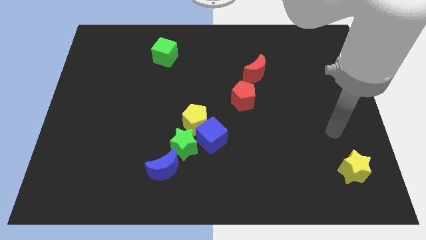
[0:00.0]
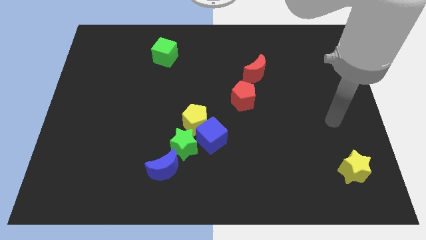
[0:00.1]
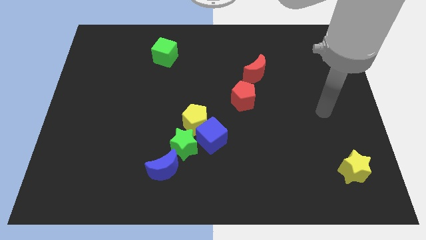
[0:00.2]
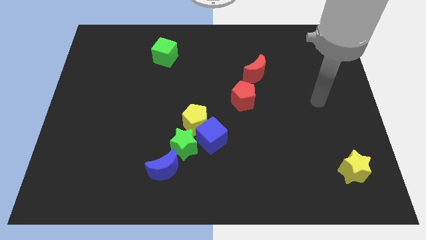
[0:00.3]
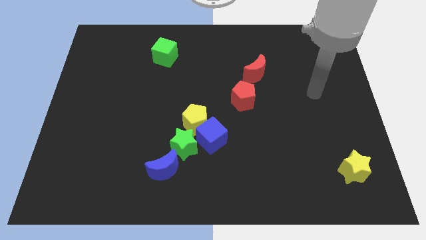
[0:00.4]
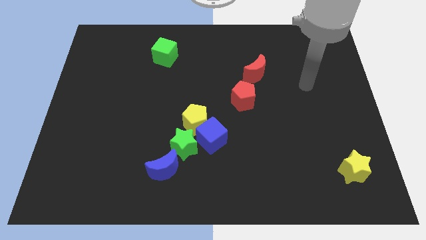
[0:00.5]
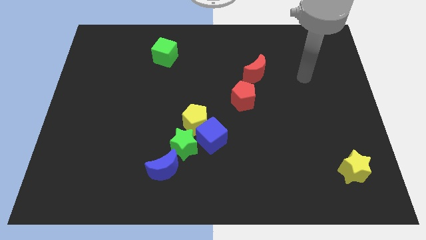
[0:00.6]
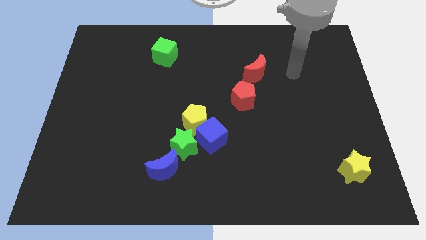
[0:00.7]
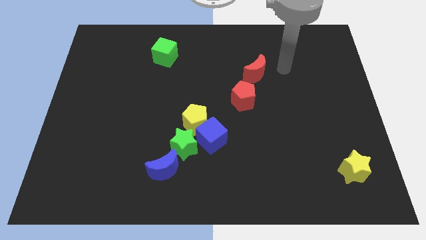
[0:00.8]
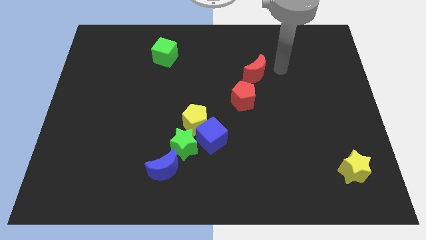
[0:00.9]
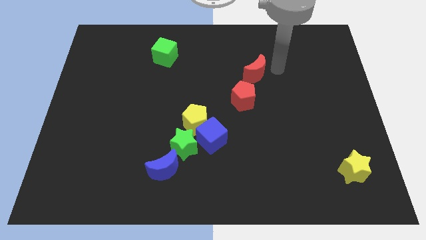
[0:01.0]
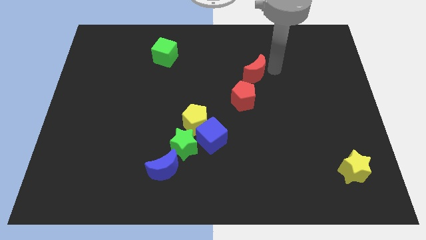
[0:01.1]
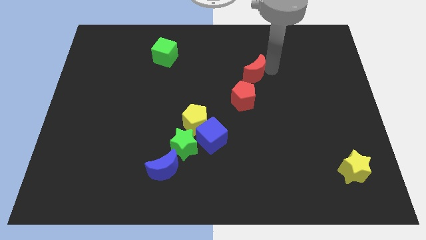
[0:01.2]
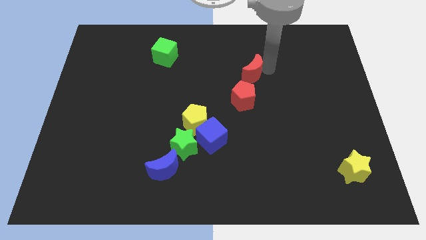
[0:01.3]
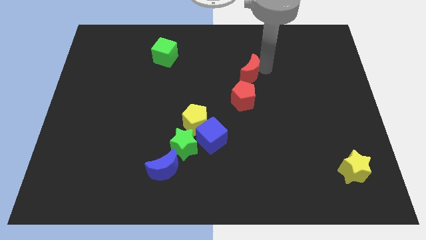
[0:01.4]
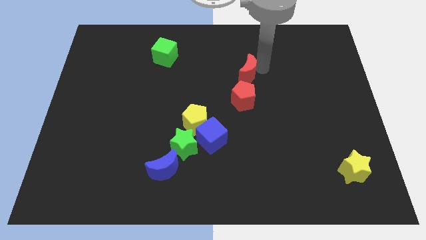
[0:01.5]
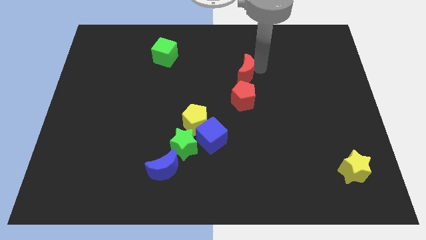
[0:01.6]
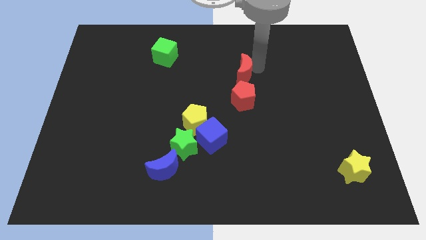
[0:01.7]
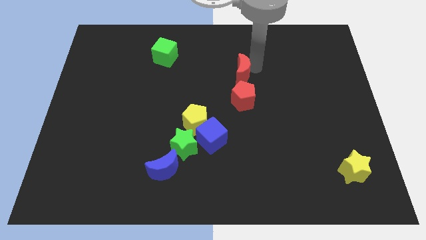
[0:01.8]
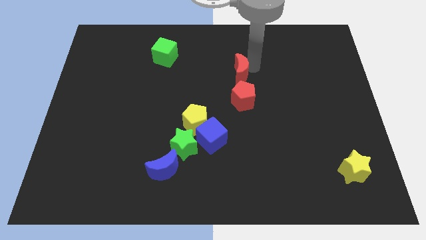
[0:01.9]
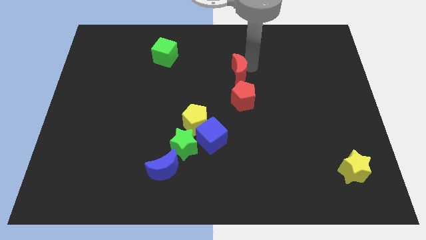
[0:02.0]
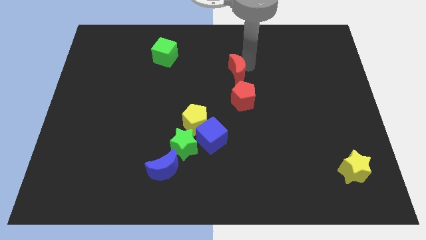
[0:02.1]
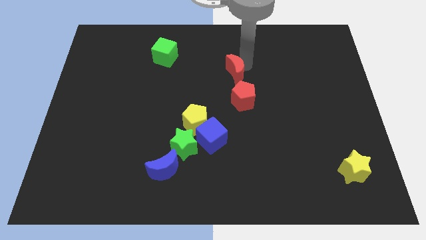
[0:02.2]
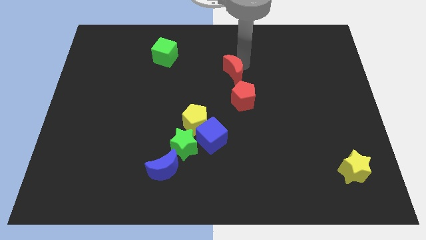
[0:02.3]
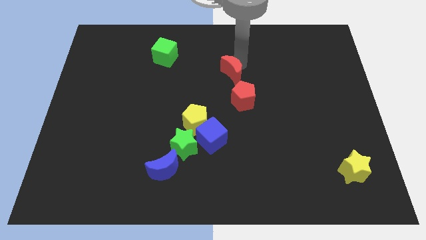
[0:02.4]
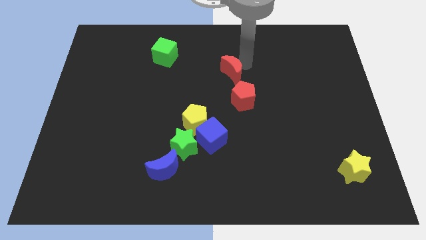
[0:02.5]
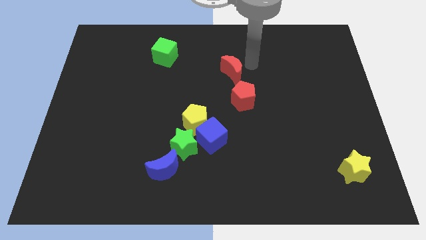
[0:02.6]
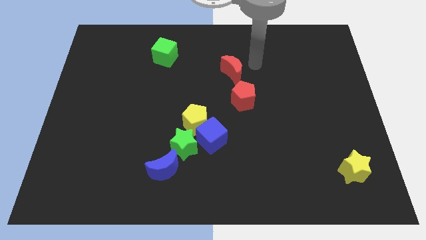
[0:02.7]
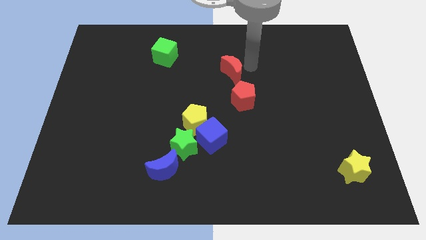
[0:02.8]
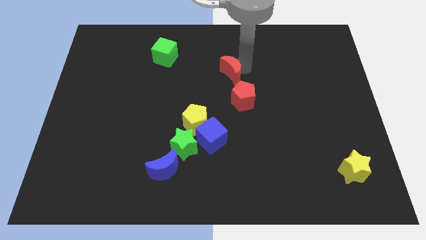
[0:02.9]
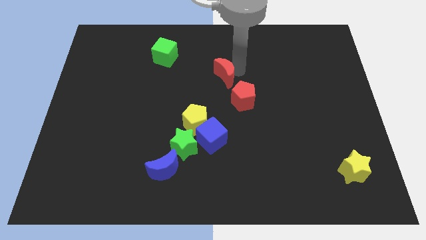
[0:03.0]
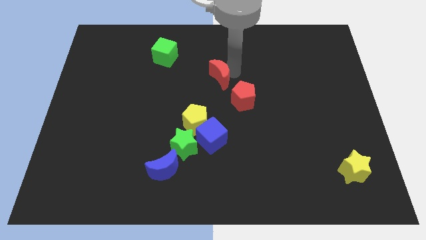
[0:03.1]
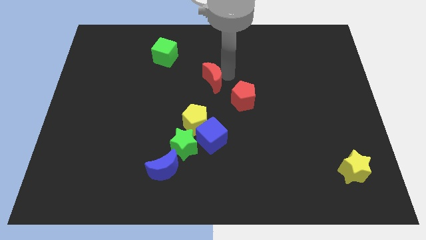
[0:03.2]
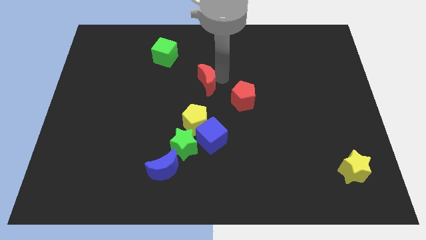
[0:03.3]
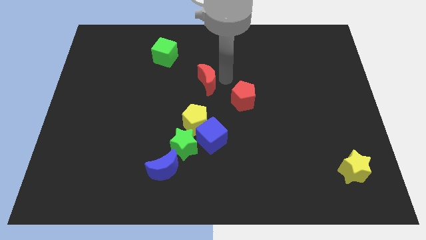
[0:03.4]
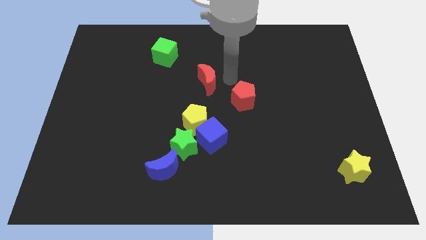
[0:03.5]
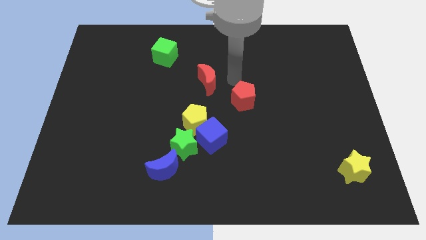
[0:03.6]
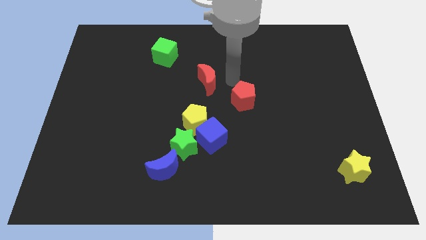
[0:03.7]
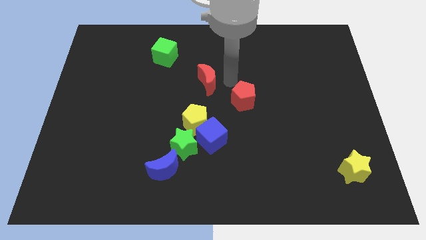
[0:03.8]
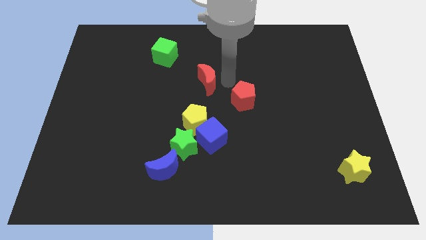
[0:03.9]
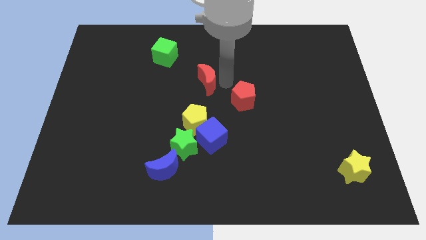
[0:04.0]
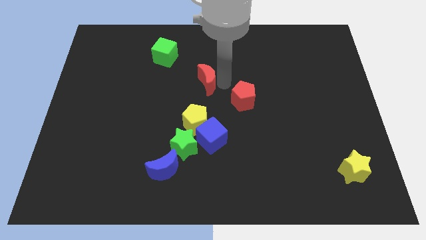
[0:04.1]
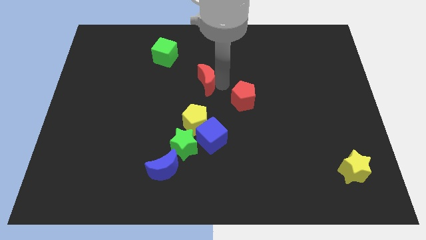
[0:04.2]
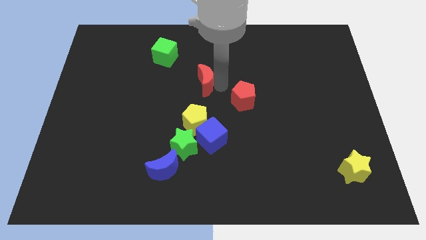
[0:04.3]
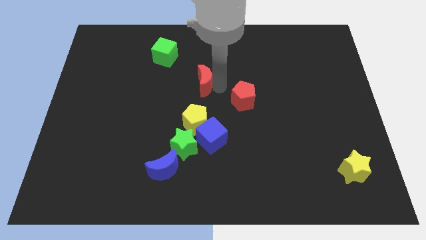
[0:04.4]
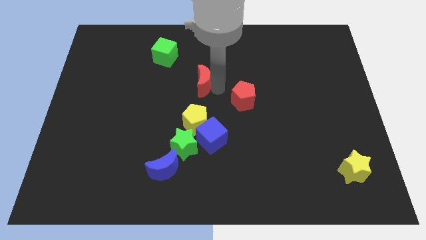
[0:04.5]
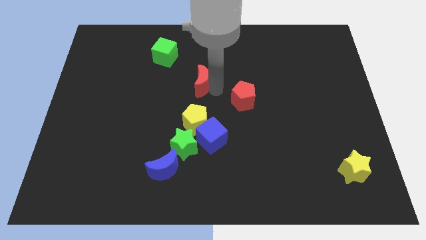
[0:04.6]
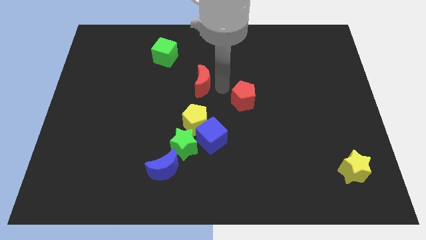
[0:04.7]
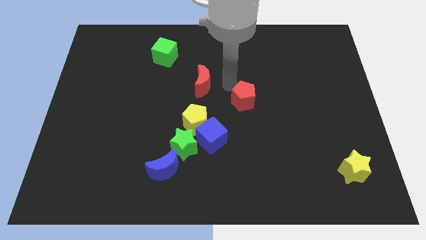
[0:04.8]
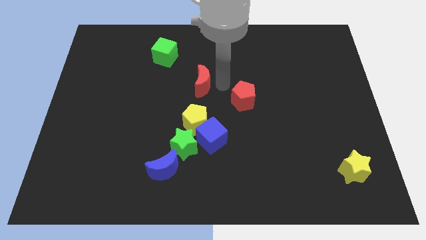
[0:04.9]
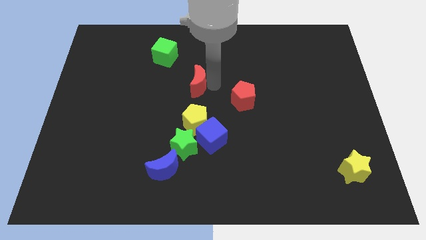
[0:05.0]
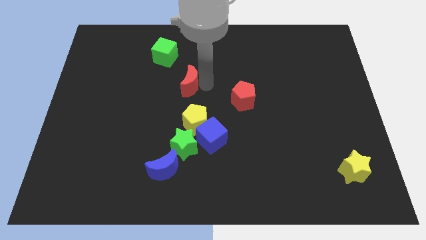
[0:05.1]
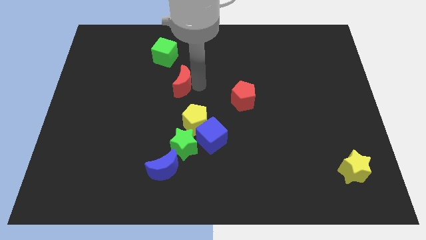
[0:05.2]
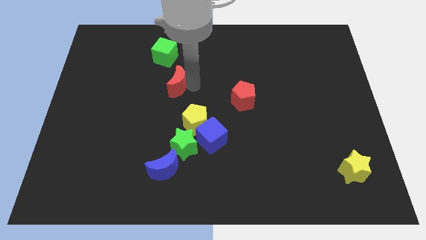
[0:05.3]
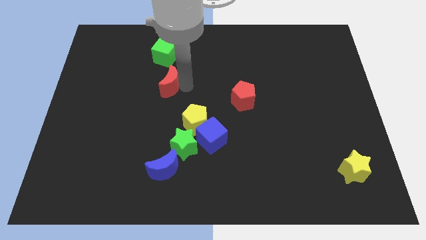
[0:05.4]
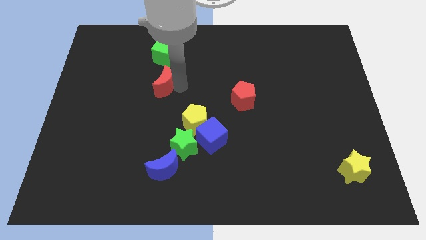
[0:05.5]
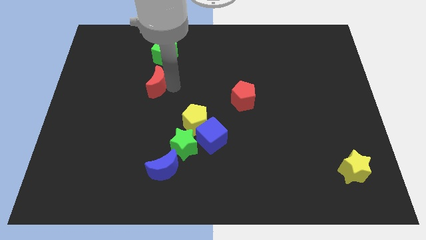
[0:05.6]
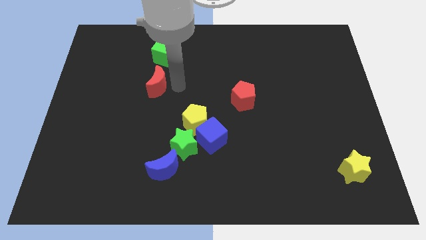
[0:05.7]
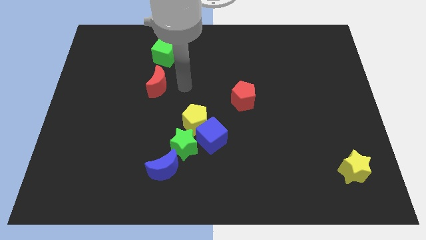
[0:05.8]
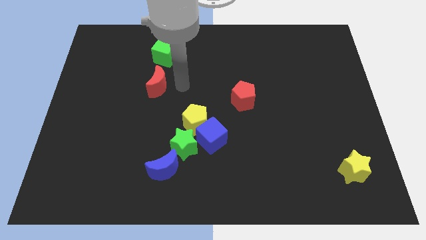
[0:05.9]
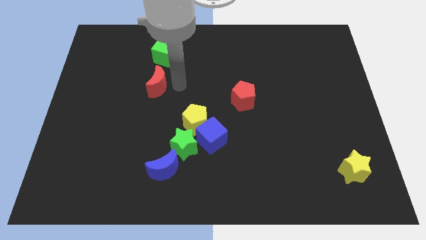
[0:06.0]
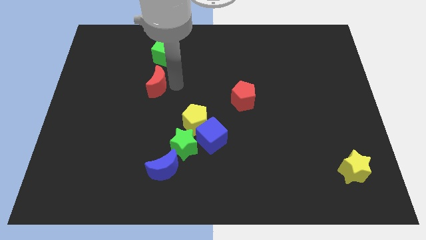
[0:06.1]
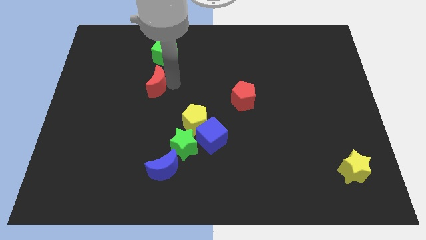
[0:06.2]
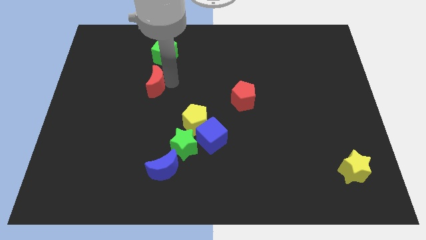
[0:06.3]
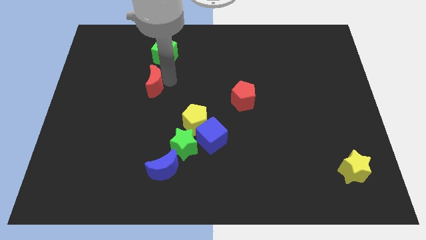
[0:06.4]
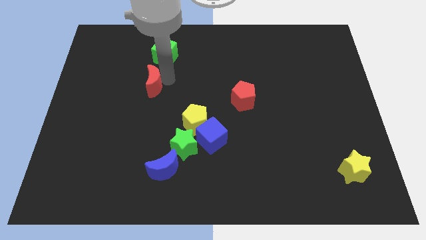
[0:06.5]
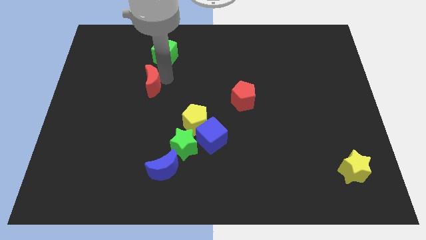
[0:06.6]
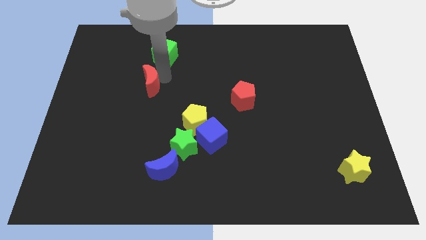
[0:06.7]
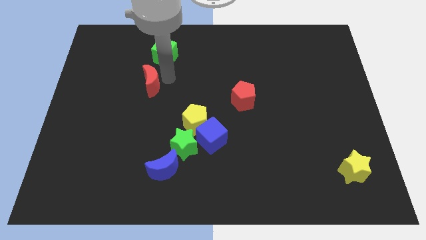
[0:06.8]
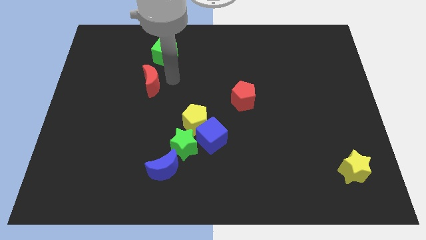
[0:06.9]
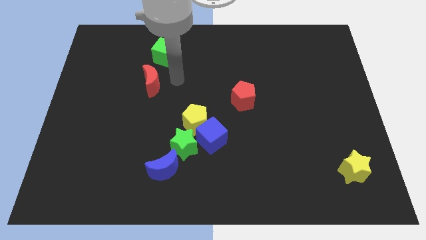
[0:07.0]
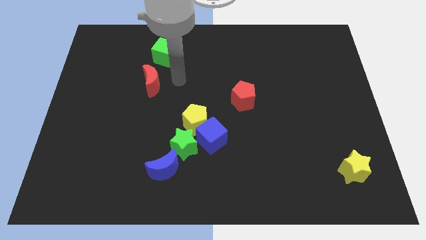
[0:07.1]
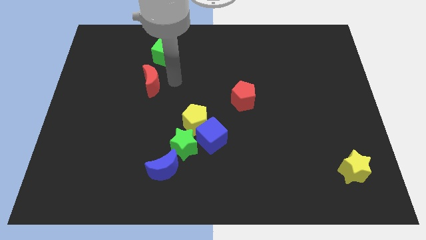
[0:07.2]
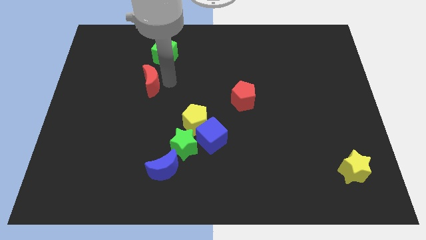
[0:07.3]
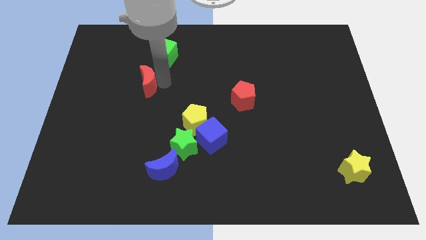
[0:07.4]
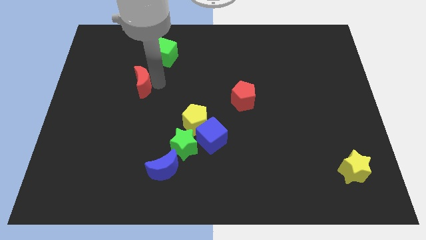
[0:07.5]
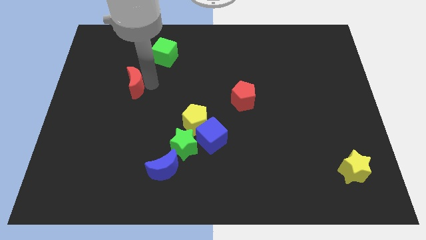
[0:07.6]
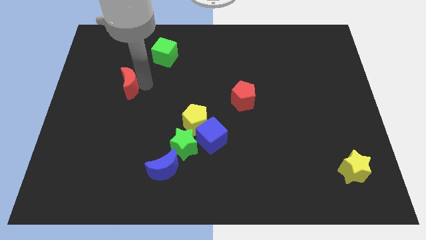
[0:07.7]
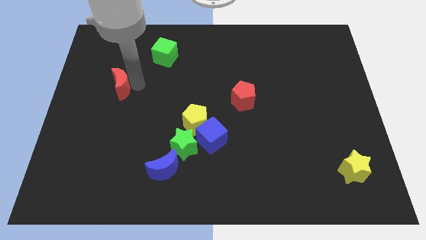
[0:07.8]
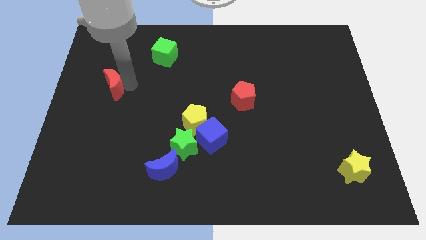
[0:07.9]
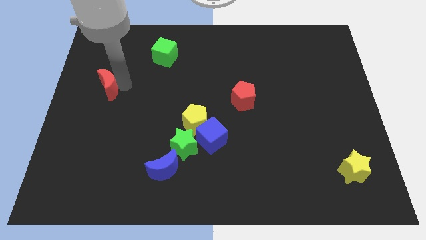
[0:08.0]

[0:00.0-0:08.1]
put the red moon to the center left
